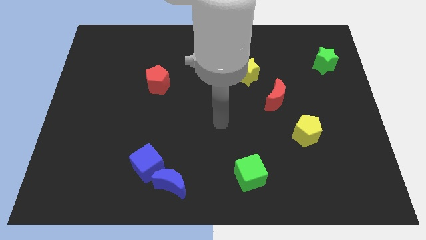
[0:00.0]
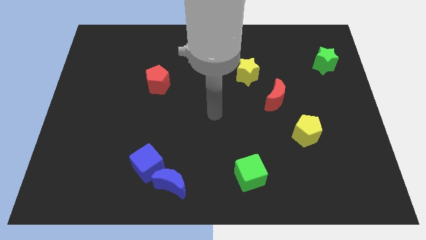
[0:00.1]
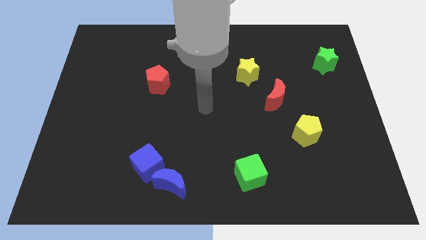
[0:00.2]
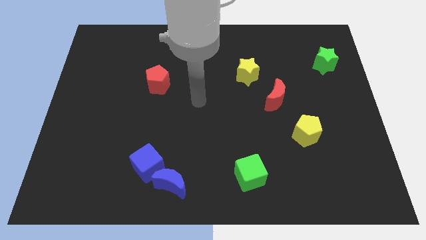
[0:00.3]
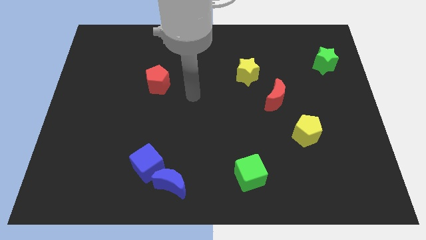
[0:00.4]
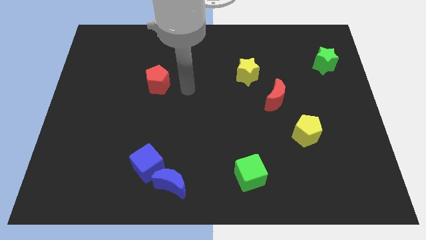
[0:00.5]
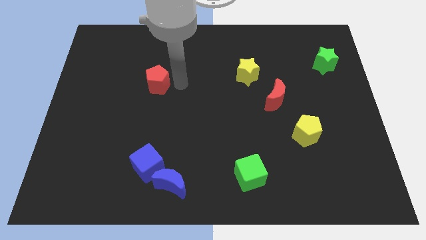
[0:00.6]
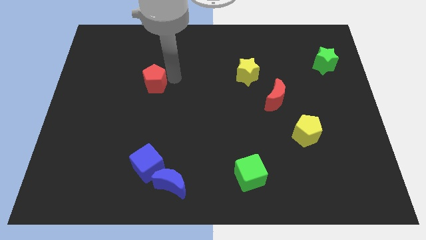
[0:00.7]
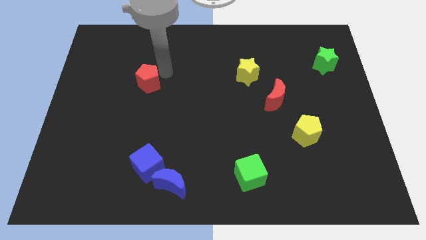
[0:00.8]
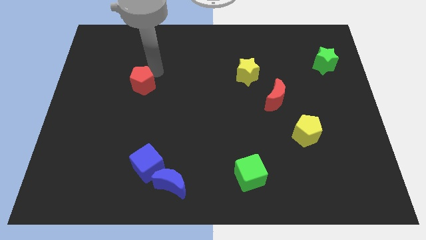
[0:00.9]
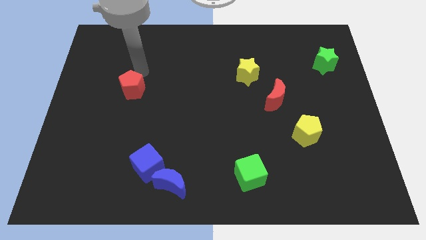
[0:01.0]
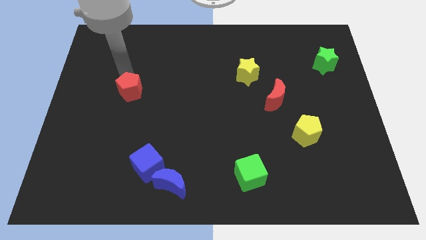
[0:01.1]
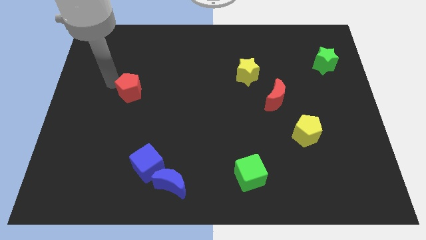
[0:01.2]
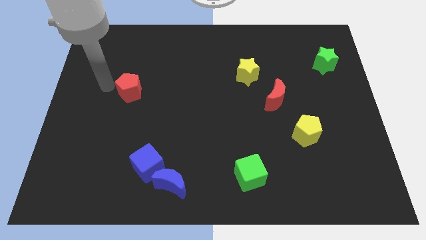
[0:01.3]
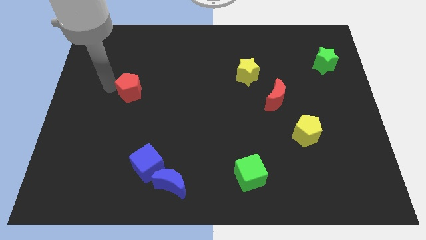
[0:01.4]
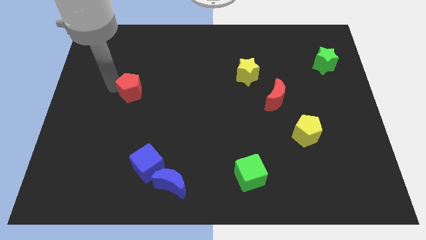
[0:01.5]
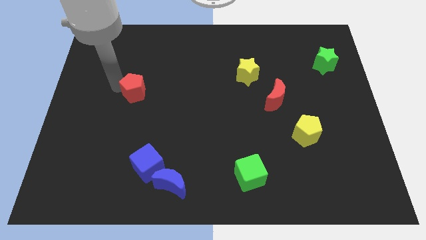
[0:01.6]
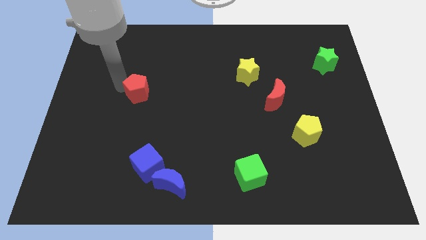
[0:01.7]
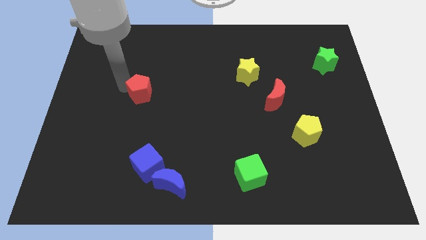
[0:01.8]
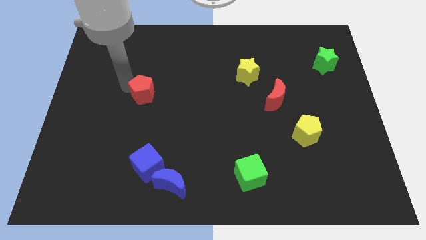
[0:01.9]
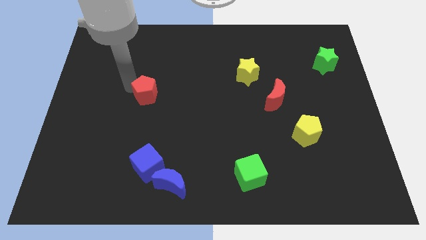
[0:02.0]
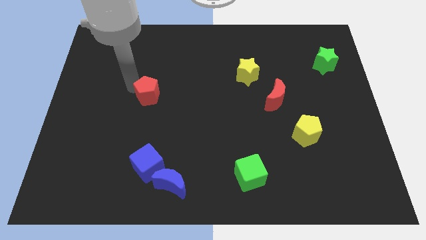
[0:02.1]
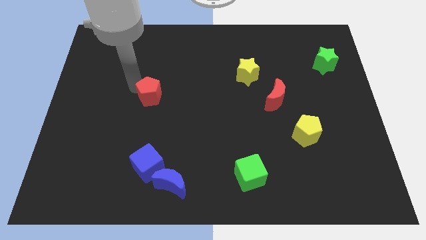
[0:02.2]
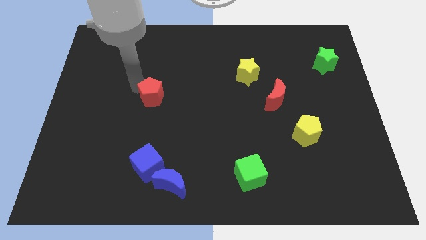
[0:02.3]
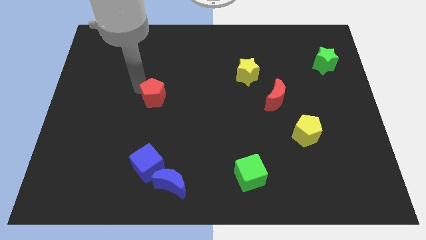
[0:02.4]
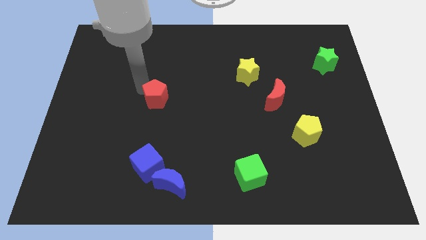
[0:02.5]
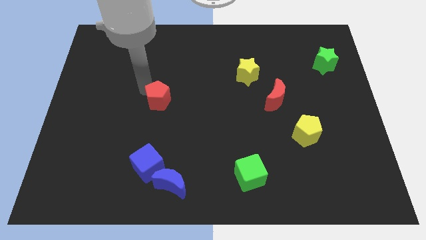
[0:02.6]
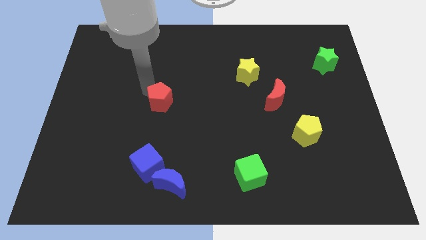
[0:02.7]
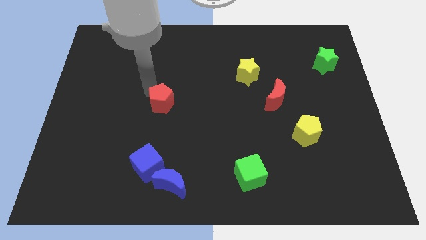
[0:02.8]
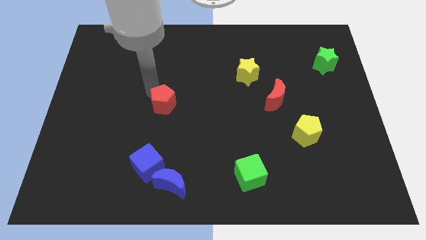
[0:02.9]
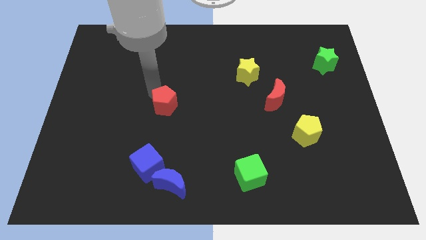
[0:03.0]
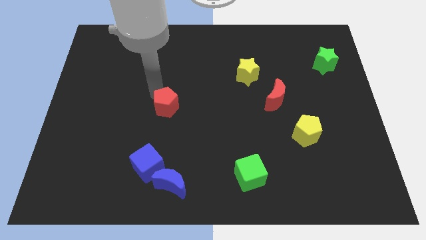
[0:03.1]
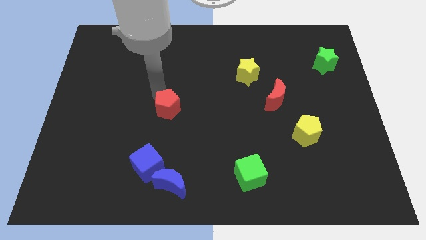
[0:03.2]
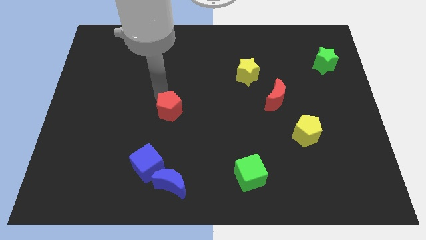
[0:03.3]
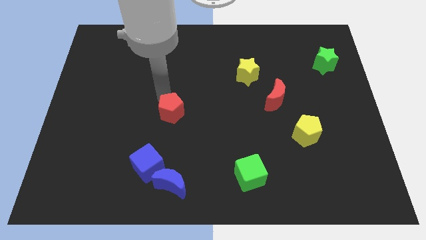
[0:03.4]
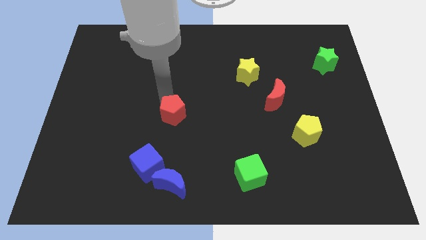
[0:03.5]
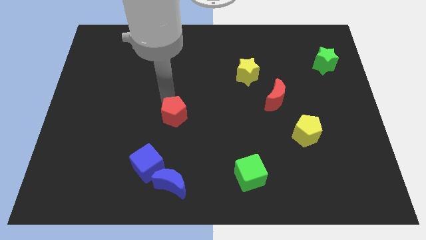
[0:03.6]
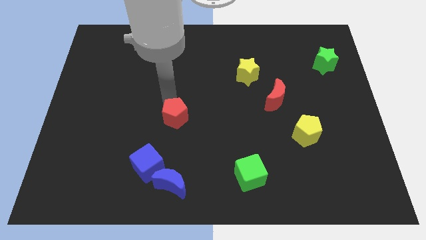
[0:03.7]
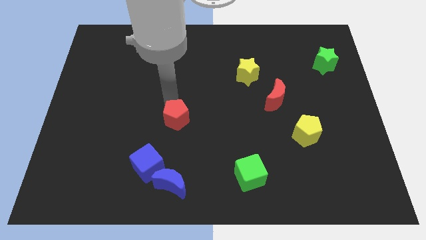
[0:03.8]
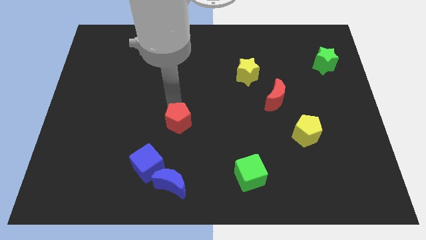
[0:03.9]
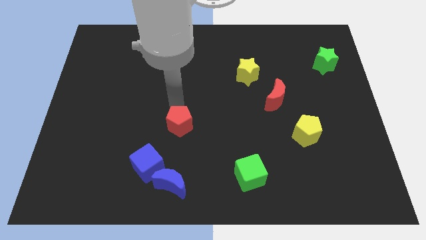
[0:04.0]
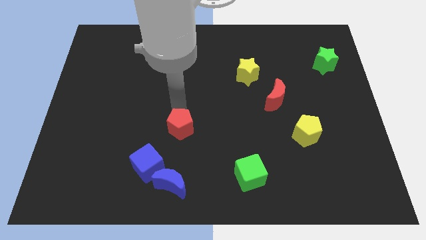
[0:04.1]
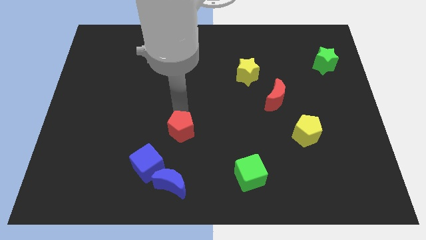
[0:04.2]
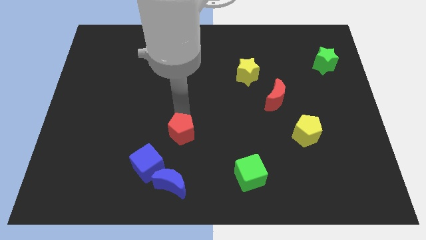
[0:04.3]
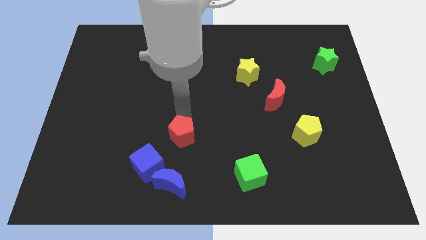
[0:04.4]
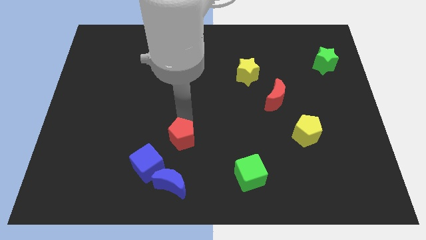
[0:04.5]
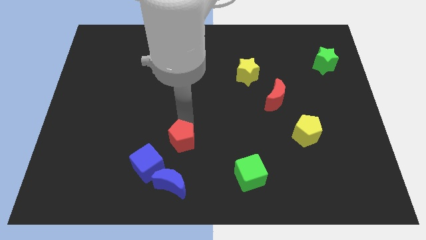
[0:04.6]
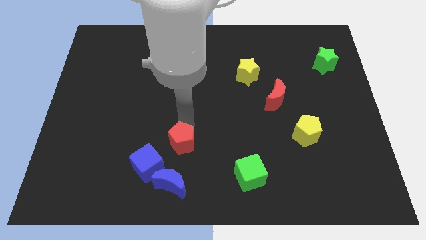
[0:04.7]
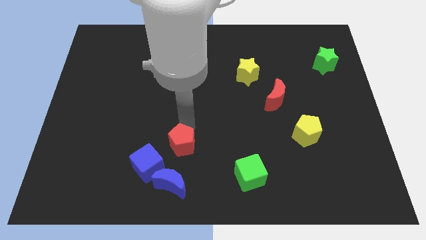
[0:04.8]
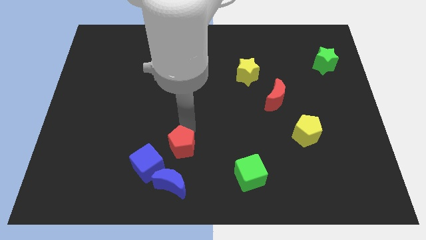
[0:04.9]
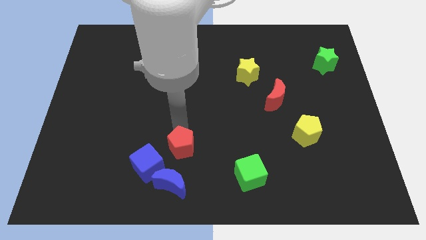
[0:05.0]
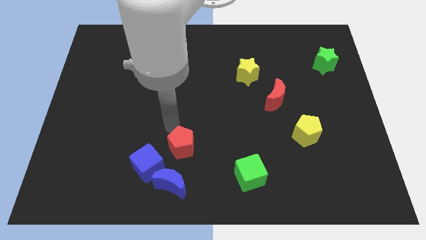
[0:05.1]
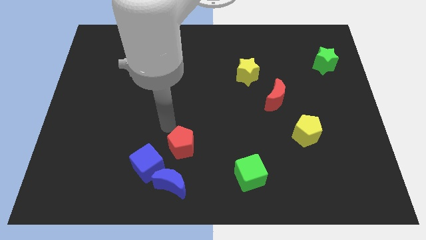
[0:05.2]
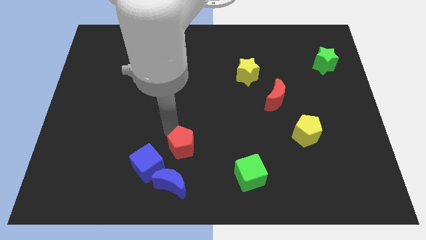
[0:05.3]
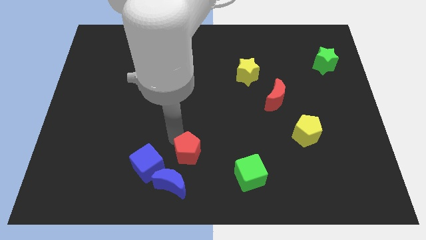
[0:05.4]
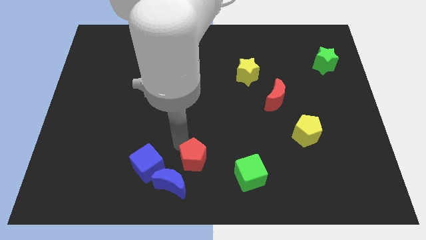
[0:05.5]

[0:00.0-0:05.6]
push the red pentagon to the bottom

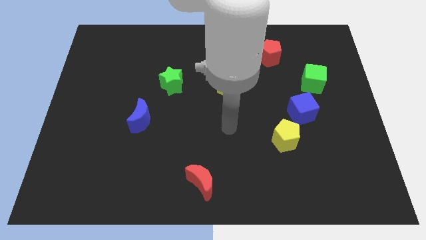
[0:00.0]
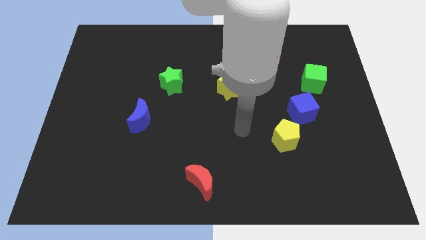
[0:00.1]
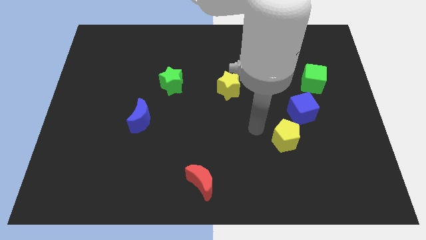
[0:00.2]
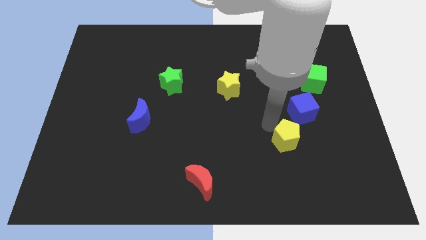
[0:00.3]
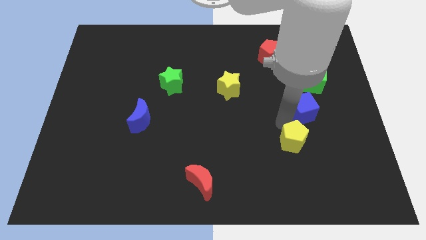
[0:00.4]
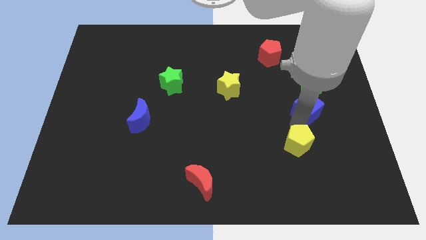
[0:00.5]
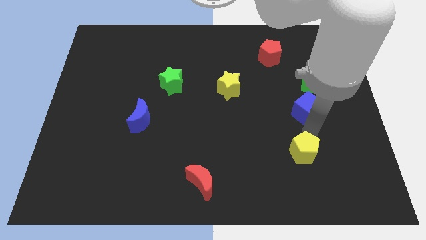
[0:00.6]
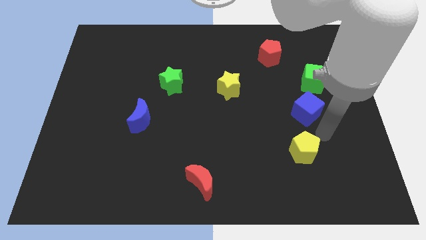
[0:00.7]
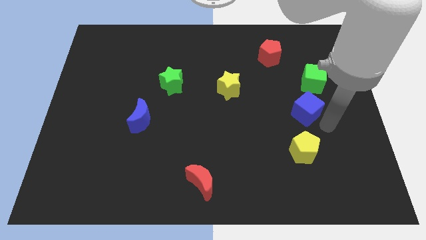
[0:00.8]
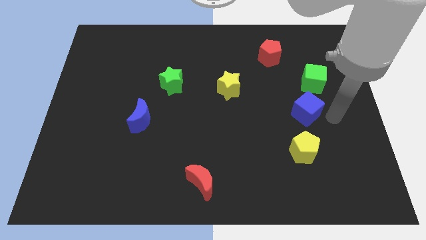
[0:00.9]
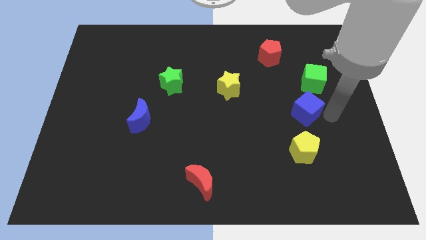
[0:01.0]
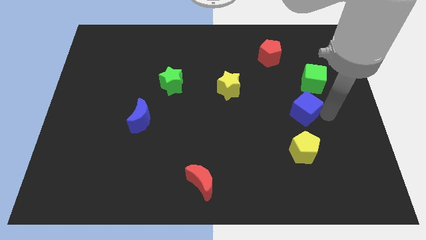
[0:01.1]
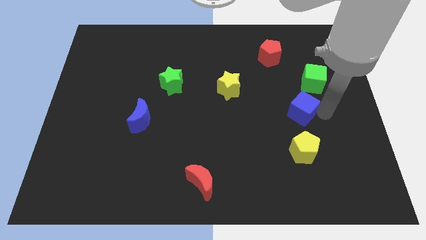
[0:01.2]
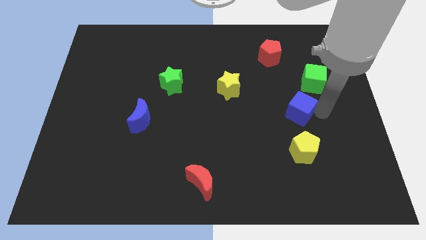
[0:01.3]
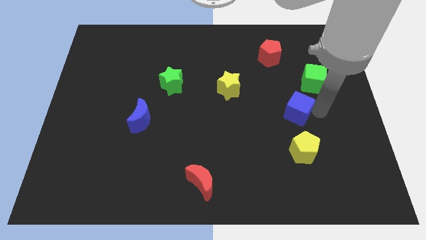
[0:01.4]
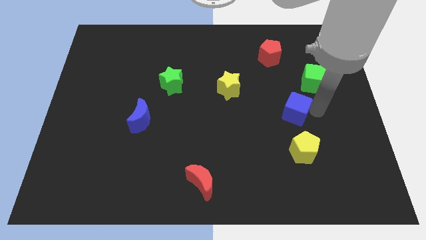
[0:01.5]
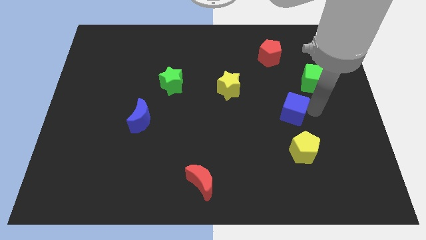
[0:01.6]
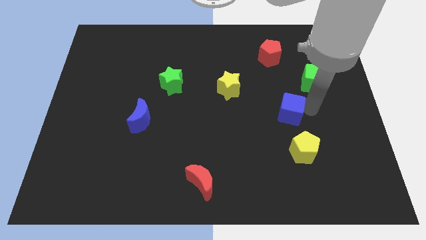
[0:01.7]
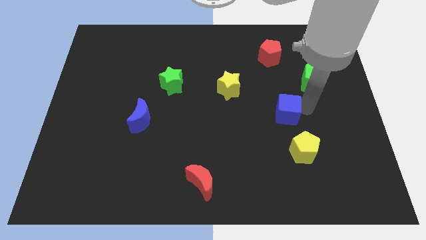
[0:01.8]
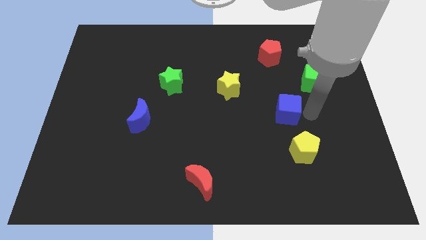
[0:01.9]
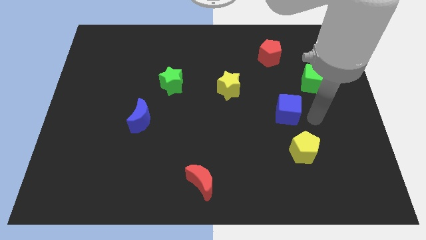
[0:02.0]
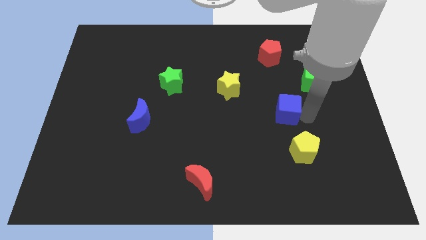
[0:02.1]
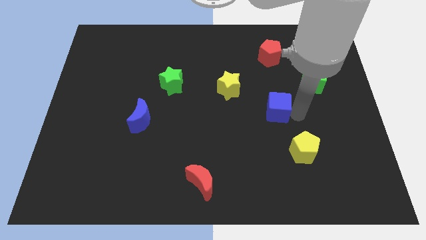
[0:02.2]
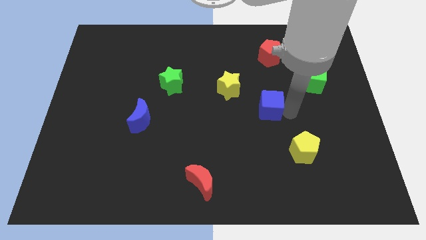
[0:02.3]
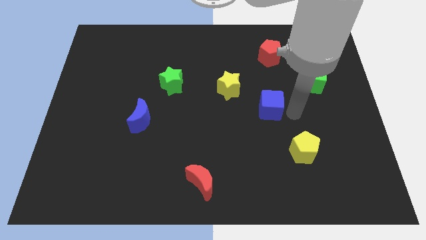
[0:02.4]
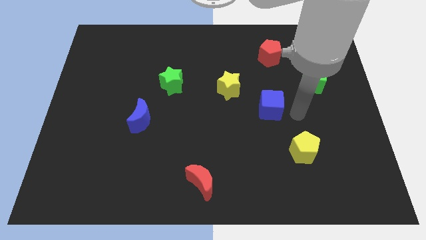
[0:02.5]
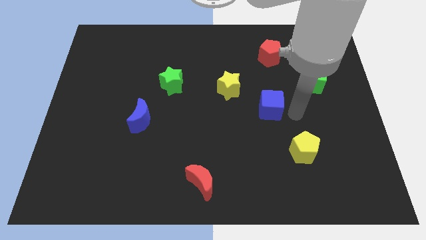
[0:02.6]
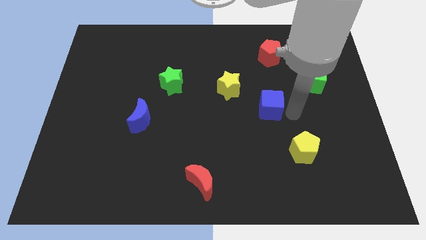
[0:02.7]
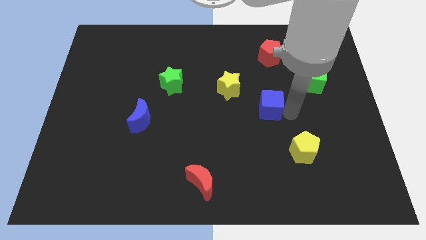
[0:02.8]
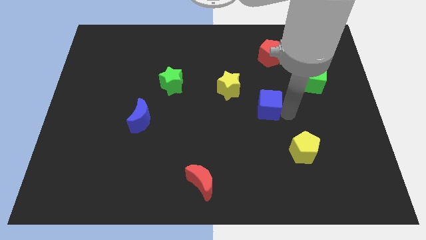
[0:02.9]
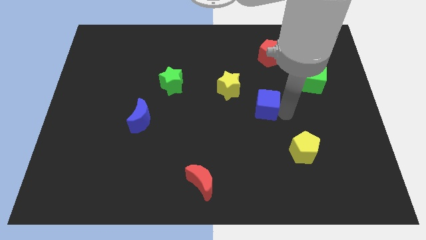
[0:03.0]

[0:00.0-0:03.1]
push the blue cube to the middle
